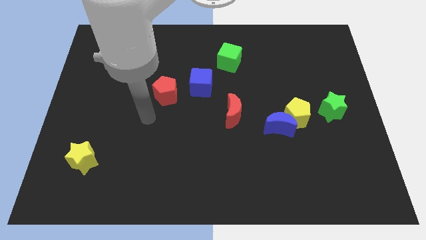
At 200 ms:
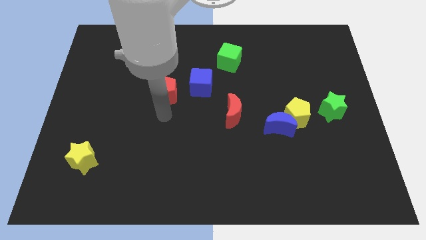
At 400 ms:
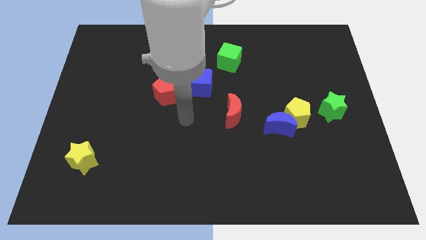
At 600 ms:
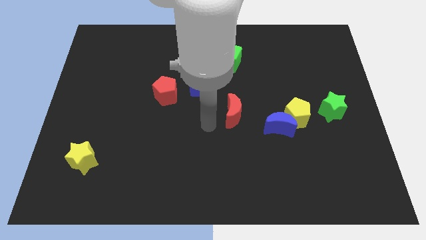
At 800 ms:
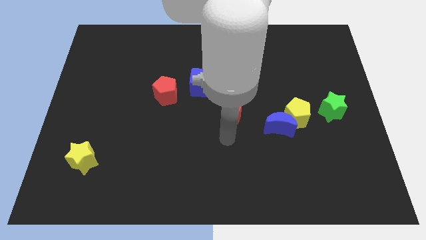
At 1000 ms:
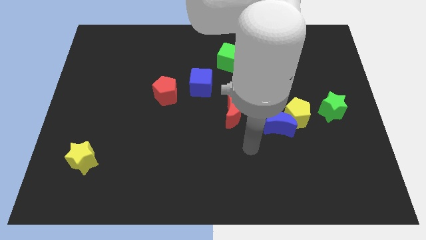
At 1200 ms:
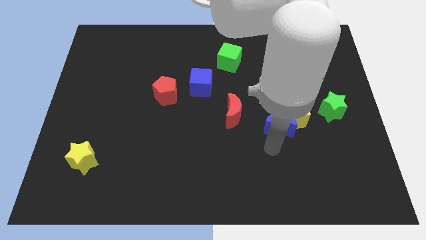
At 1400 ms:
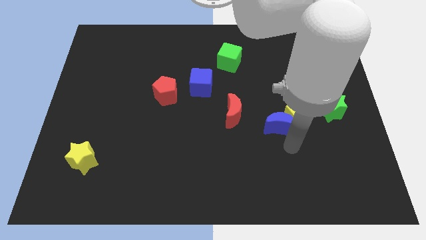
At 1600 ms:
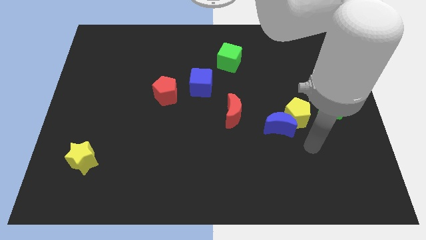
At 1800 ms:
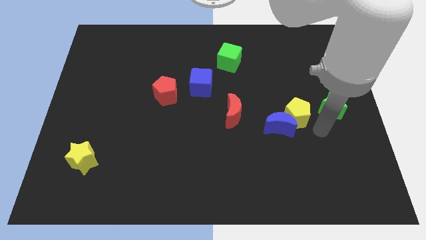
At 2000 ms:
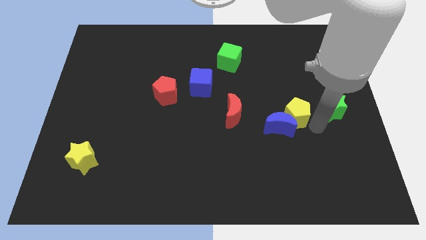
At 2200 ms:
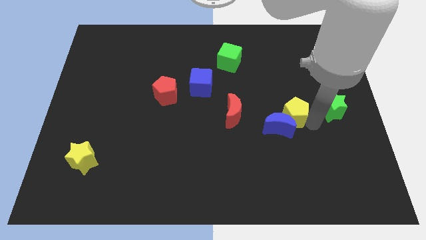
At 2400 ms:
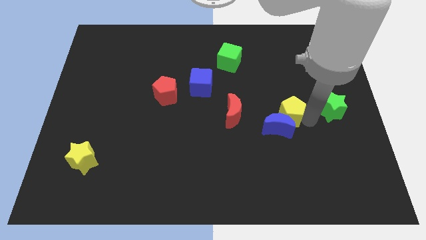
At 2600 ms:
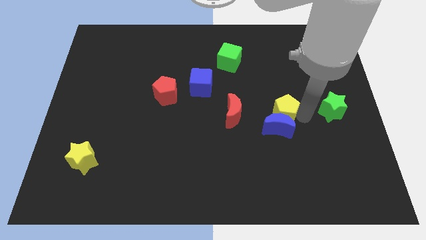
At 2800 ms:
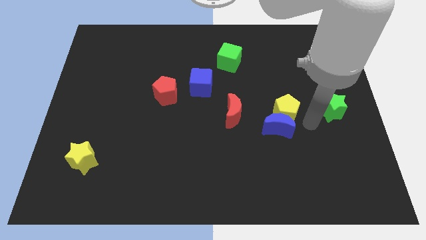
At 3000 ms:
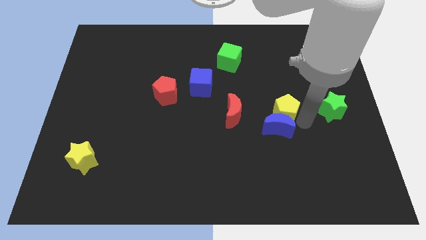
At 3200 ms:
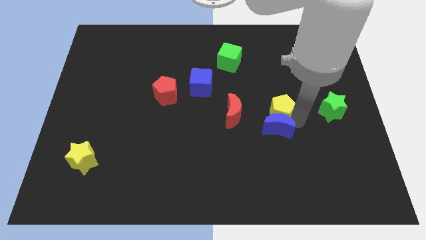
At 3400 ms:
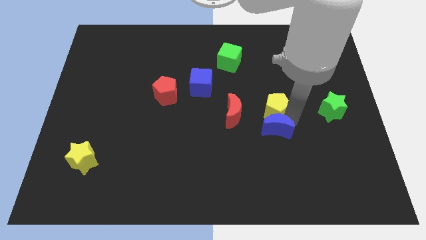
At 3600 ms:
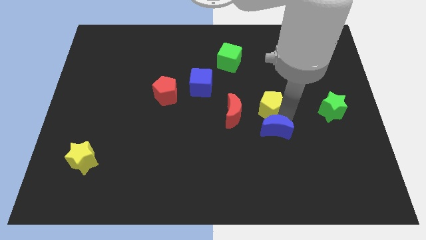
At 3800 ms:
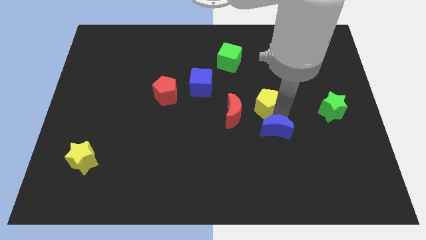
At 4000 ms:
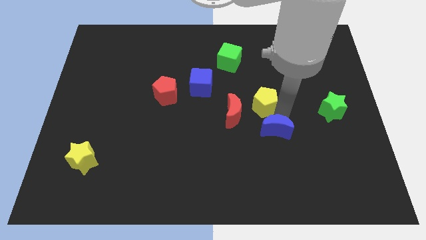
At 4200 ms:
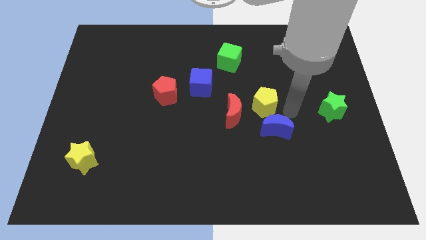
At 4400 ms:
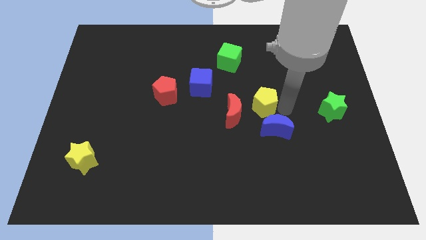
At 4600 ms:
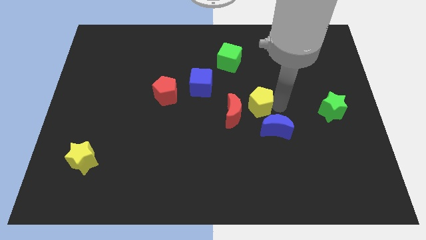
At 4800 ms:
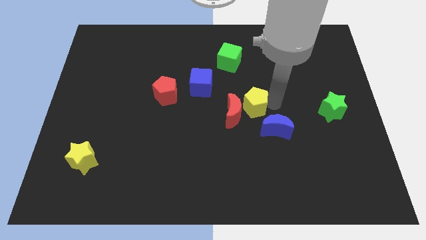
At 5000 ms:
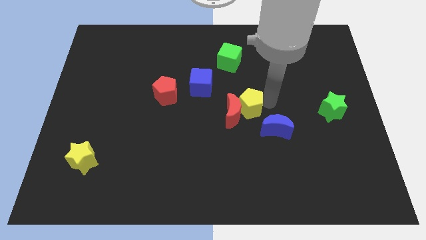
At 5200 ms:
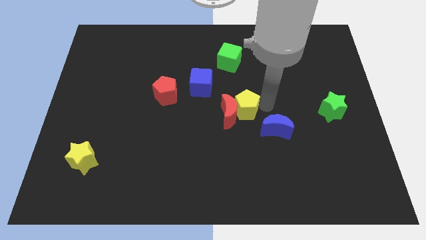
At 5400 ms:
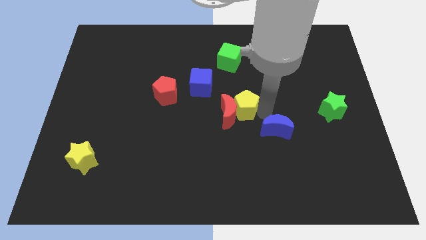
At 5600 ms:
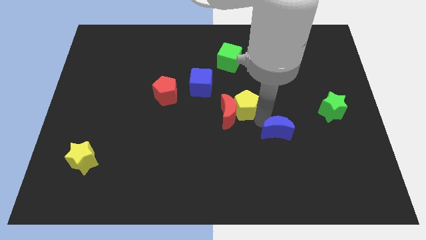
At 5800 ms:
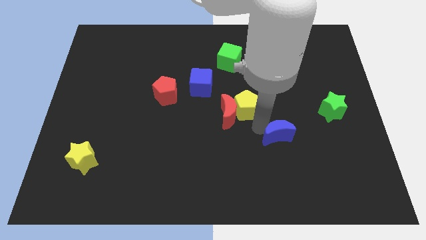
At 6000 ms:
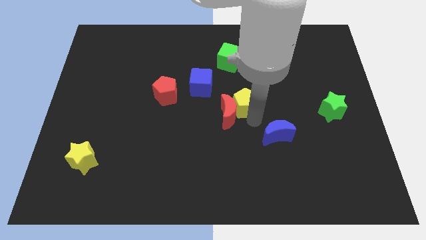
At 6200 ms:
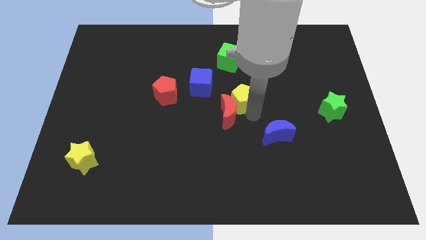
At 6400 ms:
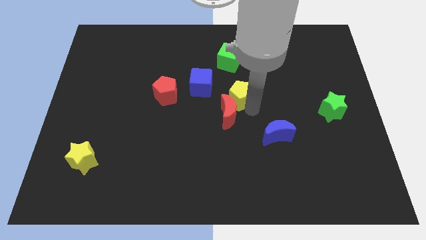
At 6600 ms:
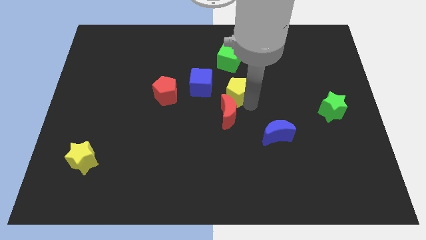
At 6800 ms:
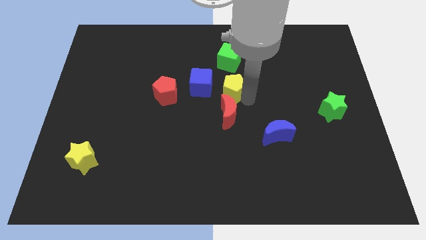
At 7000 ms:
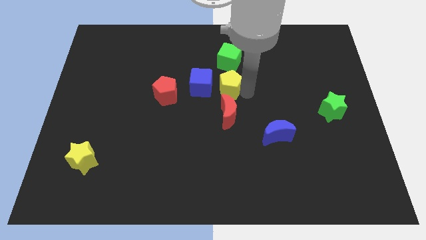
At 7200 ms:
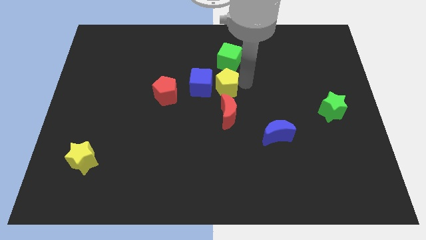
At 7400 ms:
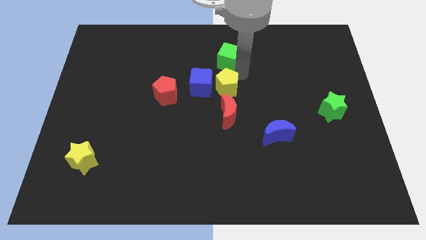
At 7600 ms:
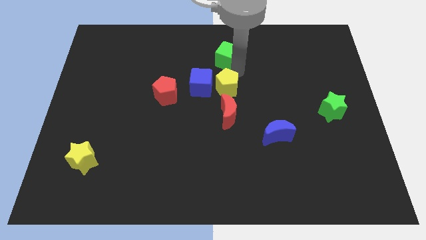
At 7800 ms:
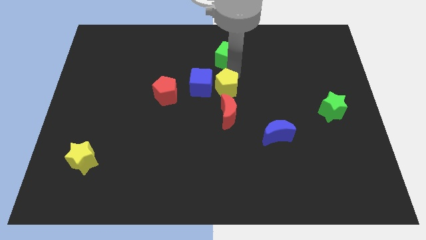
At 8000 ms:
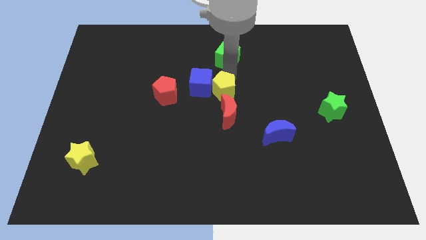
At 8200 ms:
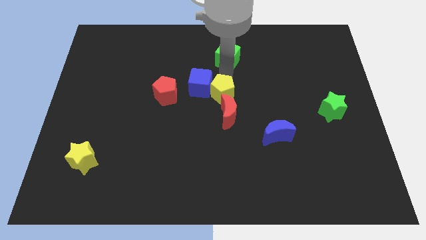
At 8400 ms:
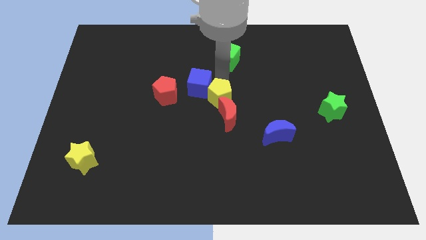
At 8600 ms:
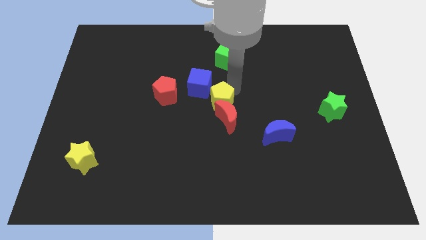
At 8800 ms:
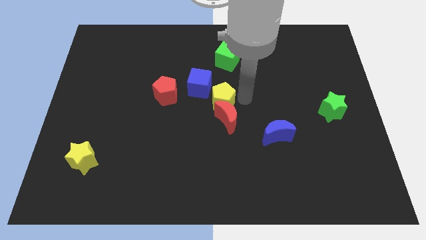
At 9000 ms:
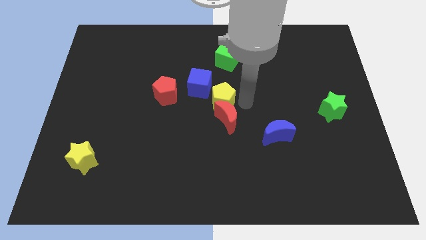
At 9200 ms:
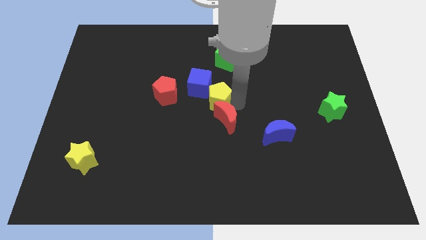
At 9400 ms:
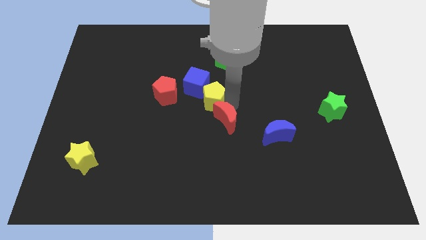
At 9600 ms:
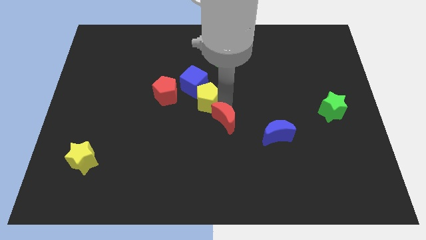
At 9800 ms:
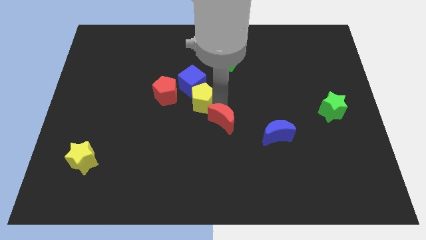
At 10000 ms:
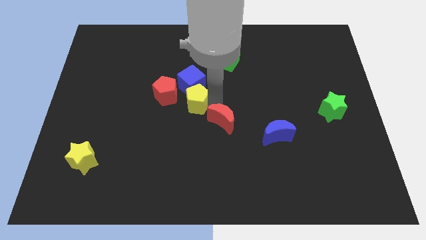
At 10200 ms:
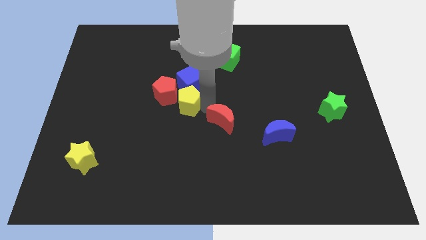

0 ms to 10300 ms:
put the yellow pentagon towards the red pentagon

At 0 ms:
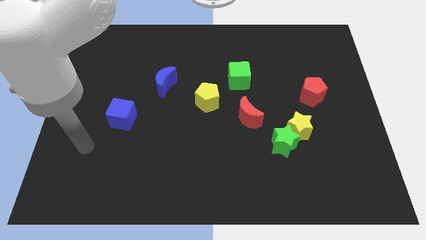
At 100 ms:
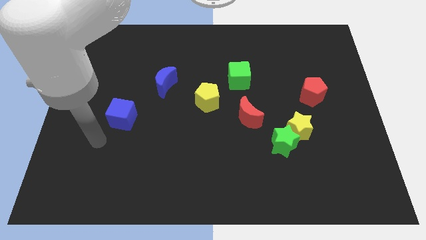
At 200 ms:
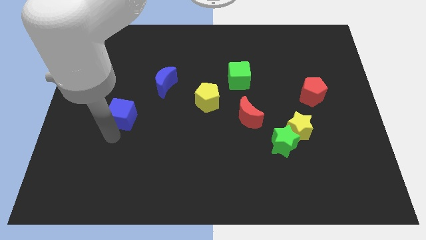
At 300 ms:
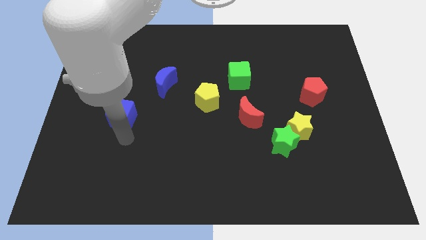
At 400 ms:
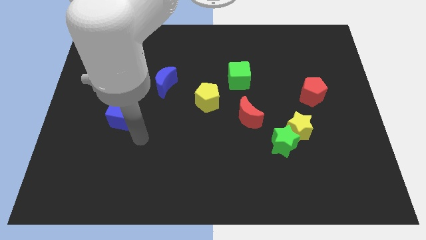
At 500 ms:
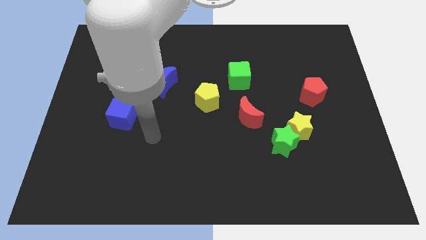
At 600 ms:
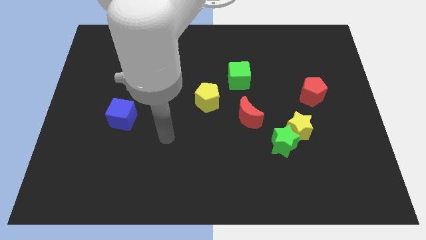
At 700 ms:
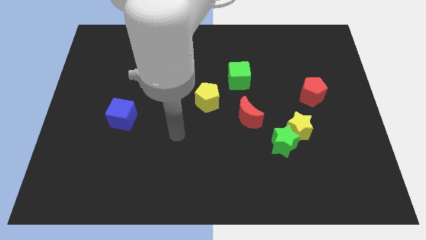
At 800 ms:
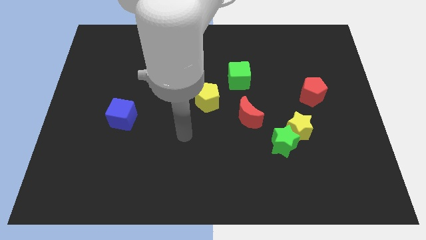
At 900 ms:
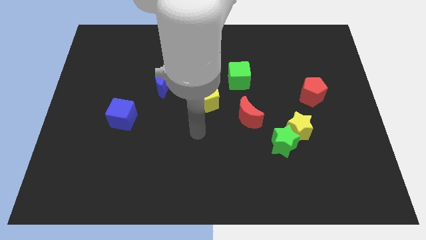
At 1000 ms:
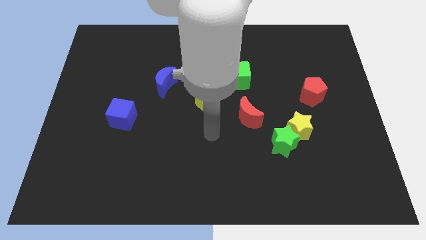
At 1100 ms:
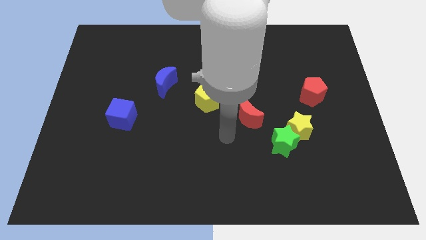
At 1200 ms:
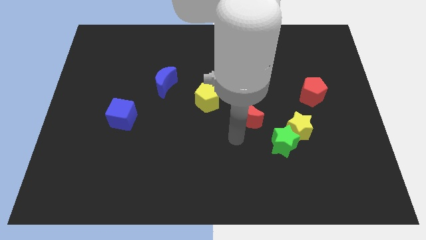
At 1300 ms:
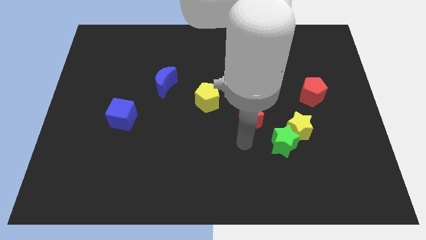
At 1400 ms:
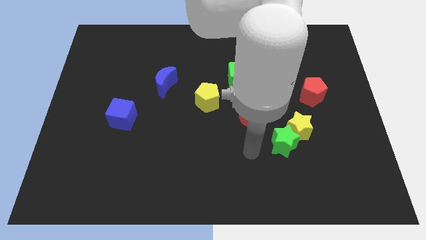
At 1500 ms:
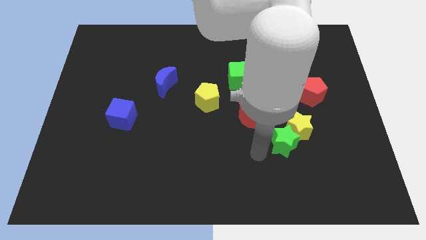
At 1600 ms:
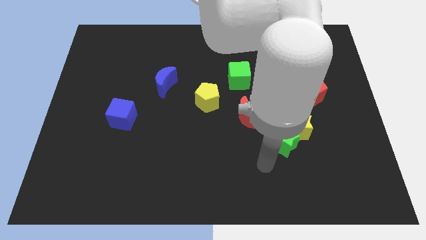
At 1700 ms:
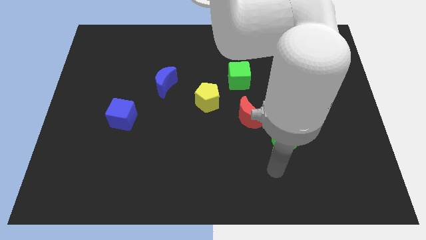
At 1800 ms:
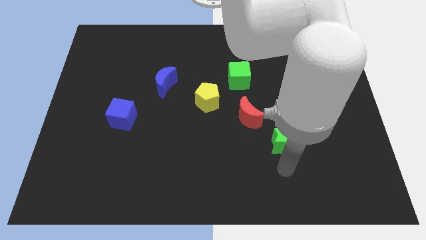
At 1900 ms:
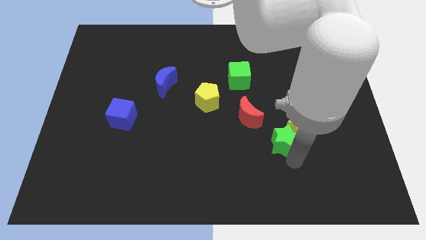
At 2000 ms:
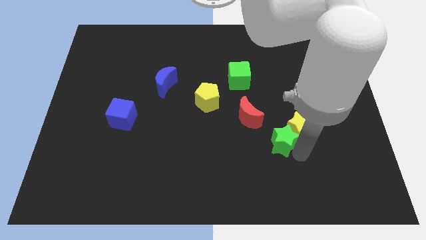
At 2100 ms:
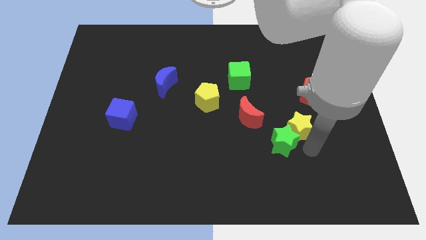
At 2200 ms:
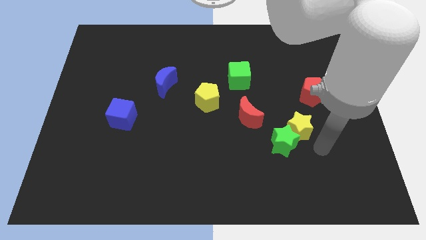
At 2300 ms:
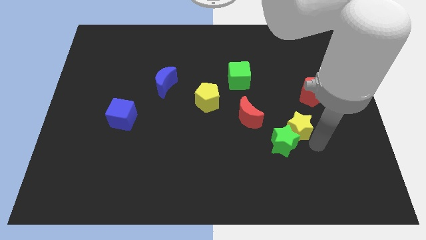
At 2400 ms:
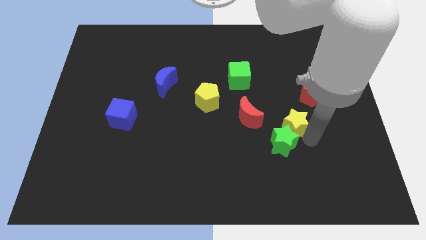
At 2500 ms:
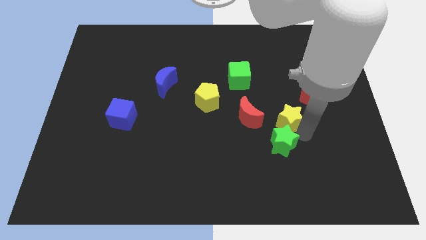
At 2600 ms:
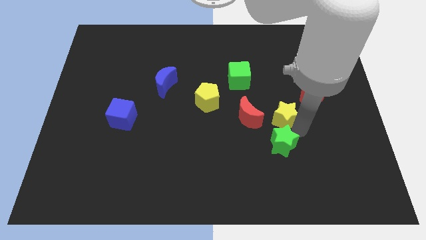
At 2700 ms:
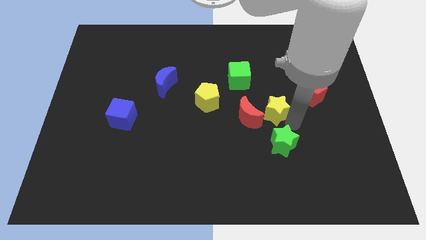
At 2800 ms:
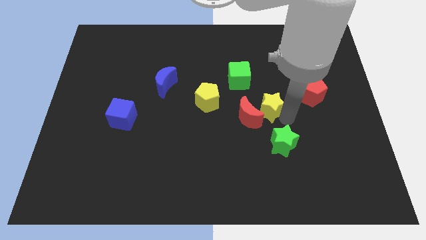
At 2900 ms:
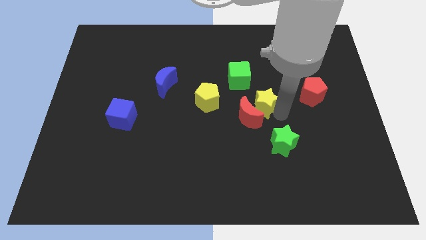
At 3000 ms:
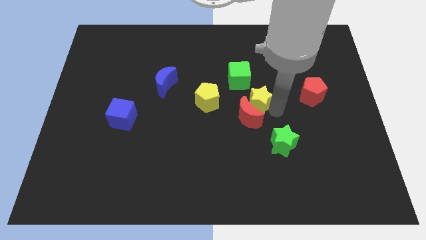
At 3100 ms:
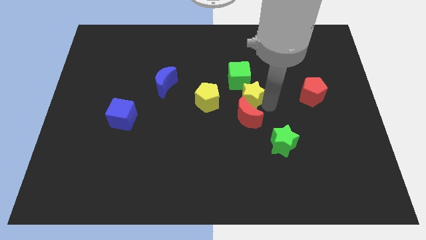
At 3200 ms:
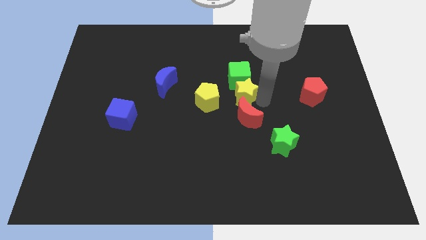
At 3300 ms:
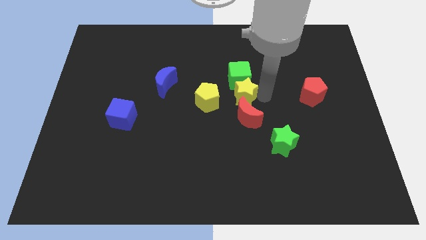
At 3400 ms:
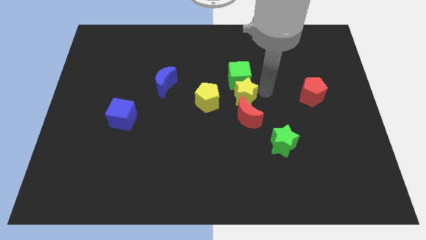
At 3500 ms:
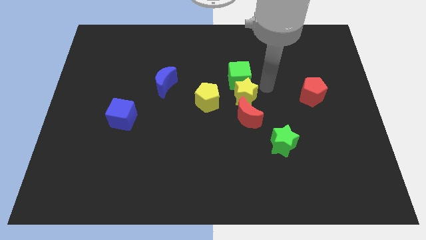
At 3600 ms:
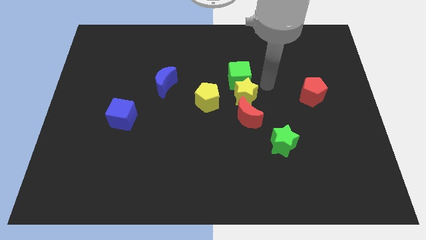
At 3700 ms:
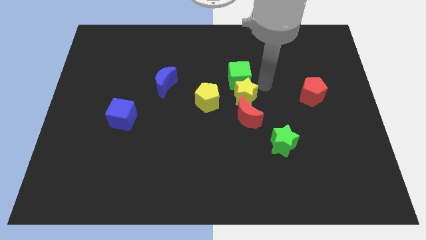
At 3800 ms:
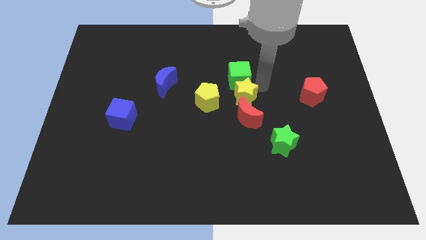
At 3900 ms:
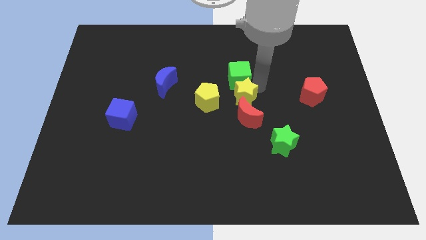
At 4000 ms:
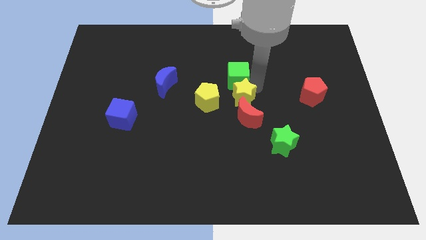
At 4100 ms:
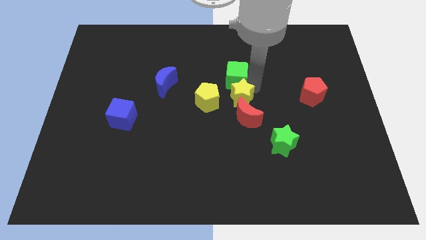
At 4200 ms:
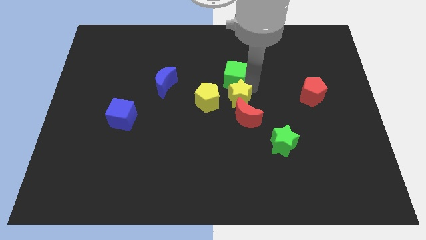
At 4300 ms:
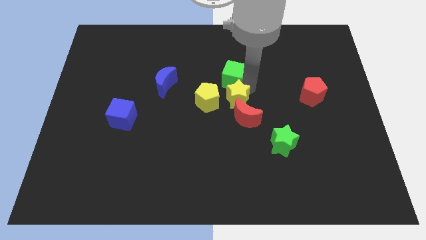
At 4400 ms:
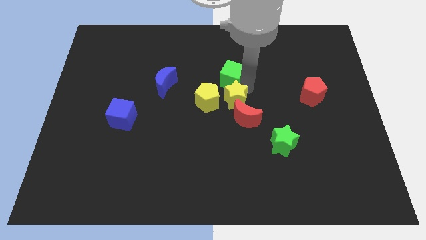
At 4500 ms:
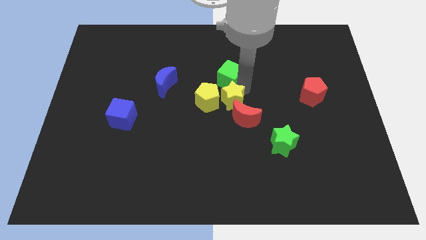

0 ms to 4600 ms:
push the yellow star next to the yellow pentagon
